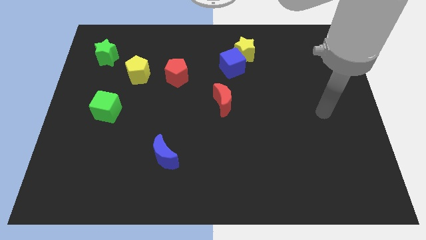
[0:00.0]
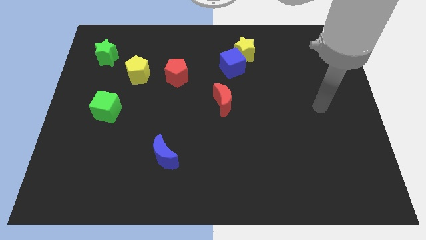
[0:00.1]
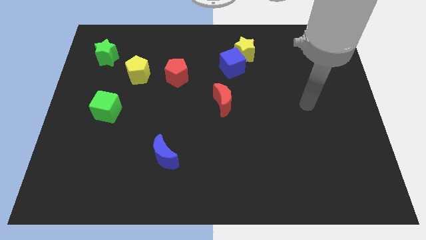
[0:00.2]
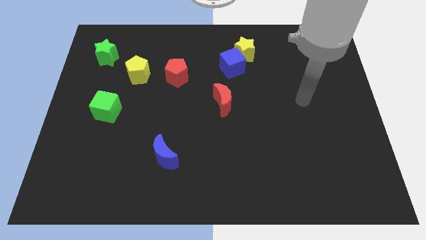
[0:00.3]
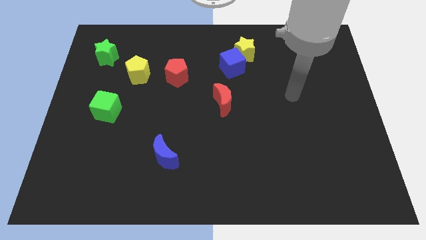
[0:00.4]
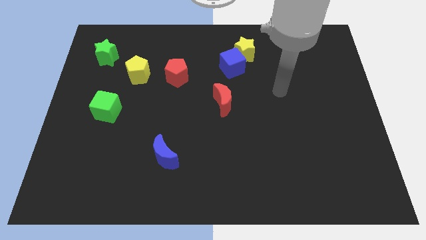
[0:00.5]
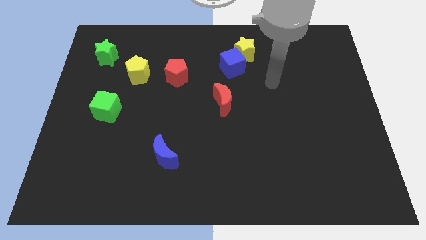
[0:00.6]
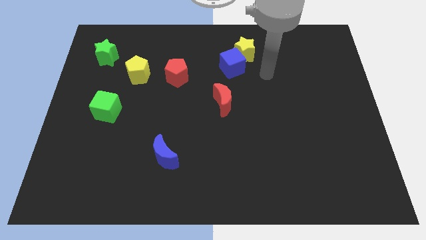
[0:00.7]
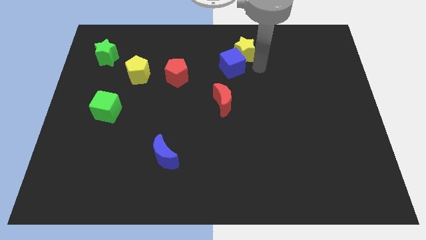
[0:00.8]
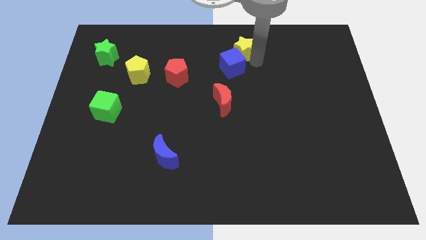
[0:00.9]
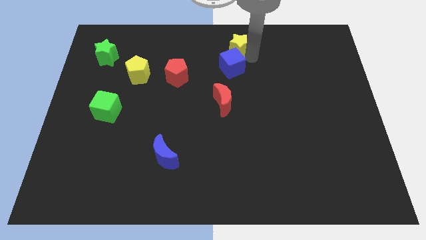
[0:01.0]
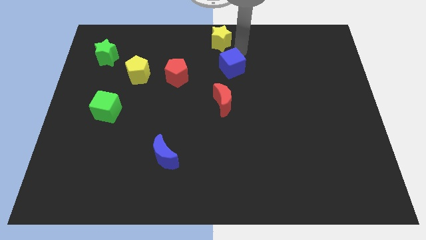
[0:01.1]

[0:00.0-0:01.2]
separate the blue cube from the yellow star

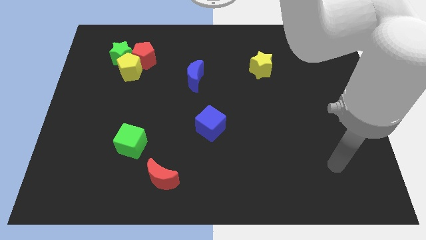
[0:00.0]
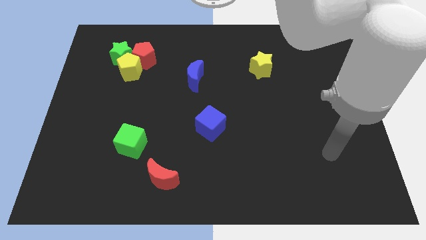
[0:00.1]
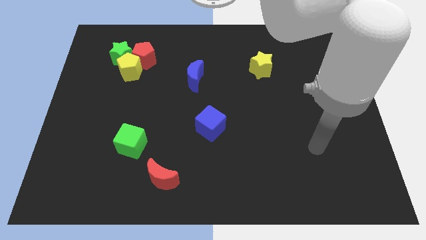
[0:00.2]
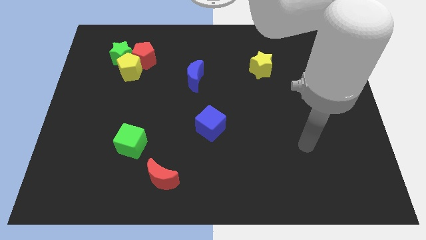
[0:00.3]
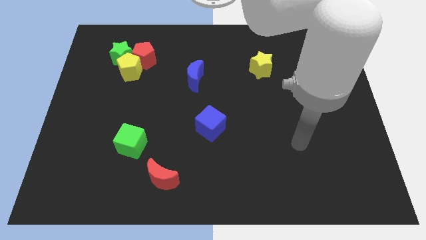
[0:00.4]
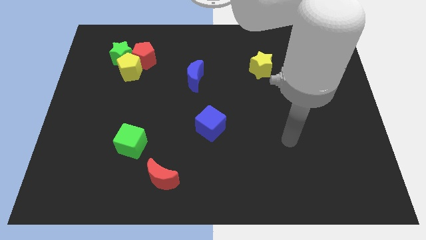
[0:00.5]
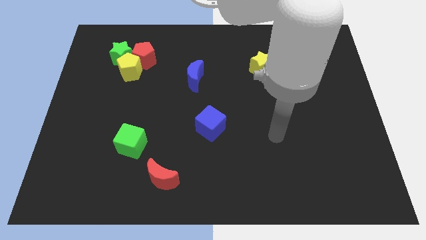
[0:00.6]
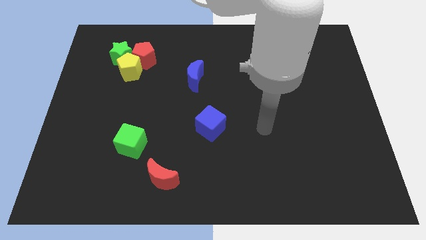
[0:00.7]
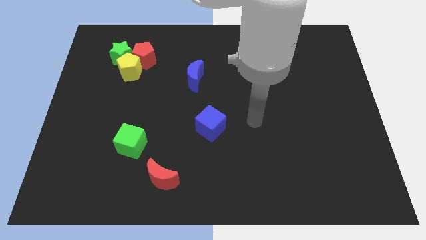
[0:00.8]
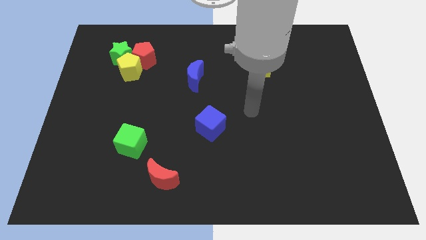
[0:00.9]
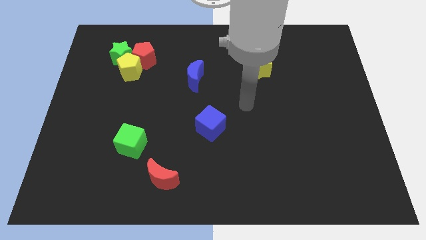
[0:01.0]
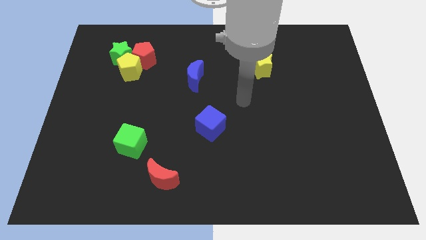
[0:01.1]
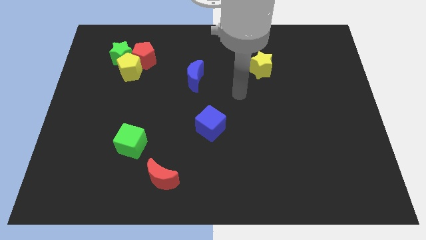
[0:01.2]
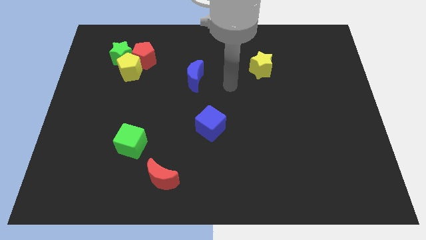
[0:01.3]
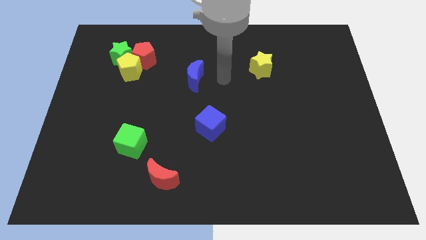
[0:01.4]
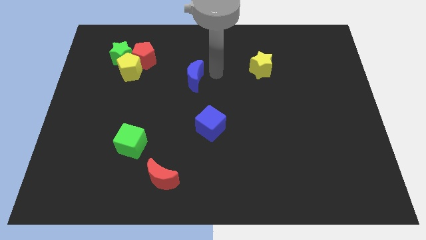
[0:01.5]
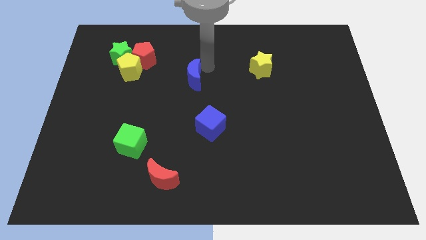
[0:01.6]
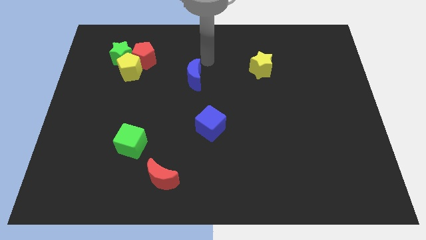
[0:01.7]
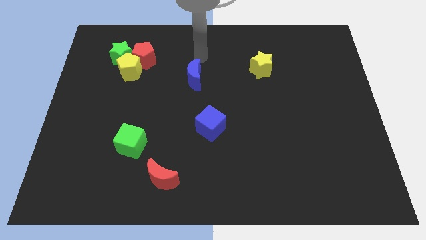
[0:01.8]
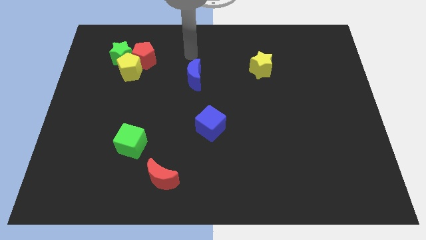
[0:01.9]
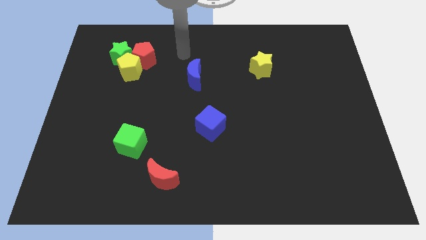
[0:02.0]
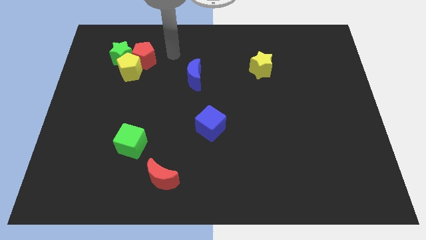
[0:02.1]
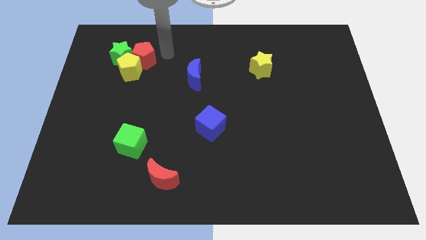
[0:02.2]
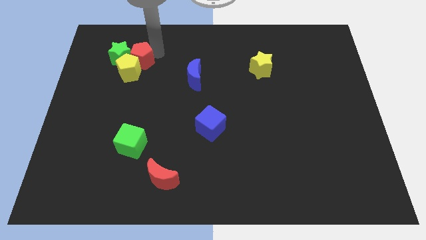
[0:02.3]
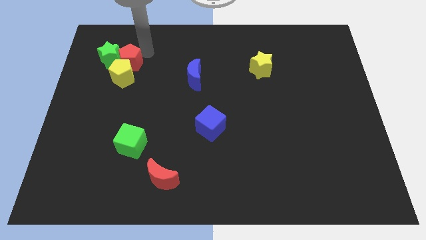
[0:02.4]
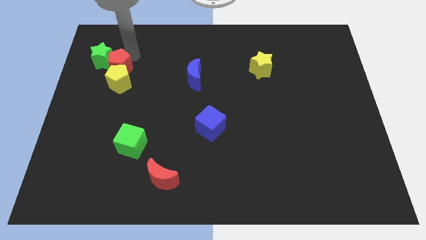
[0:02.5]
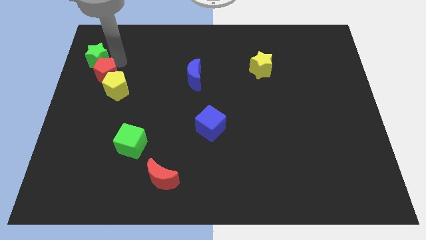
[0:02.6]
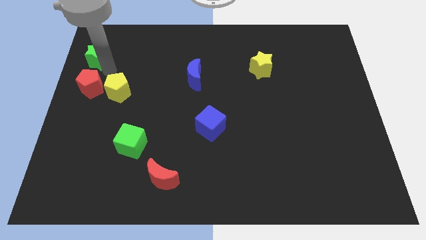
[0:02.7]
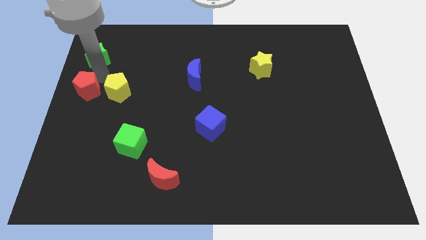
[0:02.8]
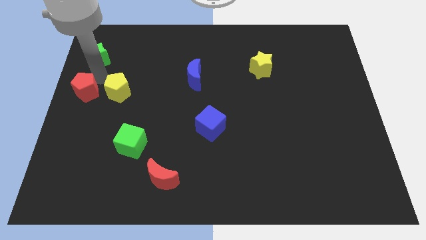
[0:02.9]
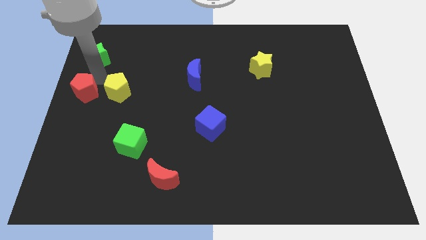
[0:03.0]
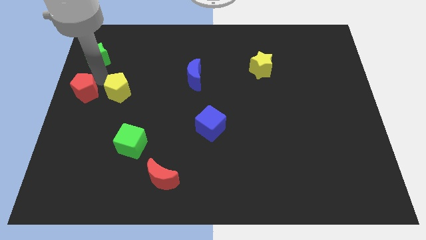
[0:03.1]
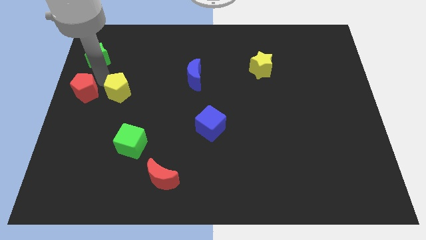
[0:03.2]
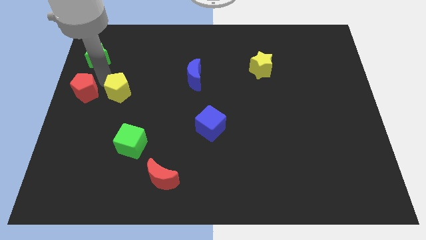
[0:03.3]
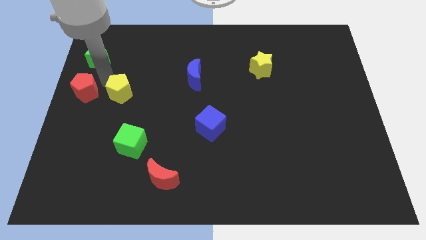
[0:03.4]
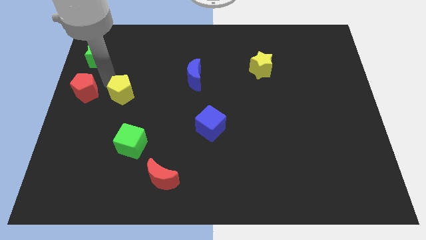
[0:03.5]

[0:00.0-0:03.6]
separate the yellow pentagon from the red pentagon and green star

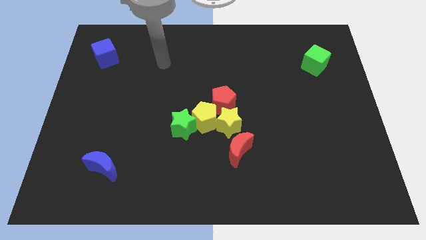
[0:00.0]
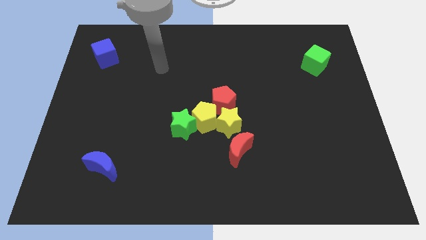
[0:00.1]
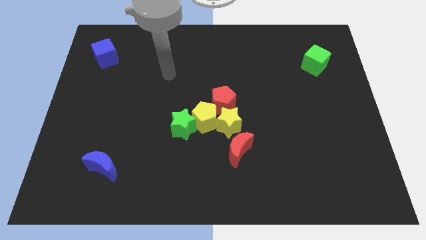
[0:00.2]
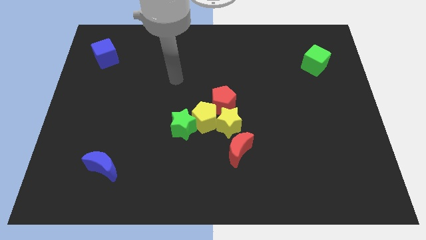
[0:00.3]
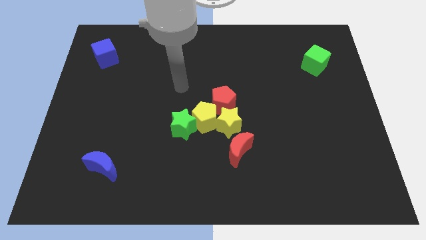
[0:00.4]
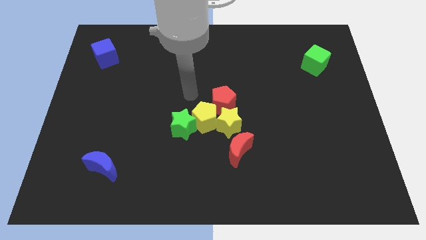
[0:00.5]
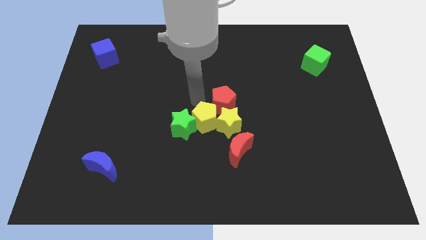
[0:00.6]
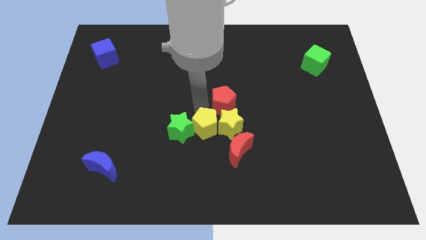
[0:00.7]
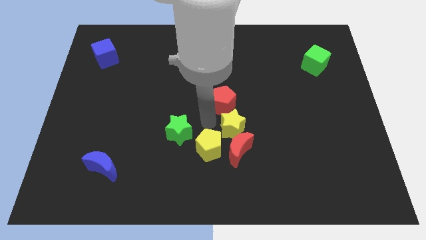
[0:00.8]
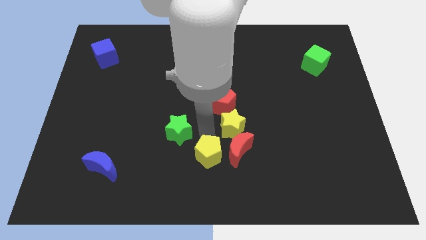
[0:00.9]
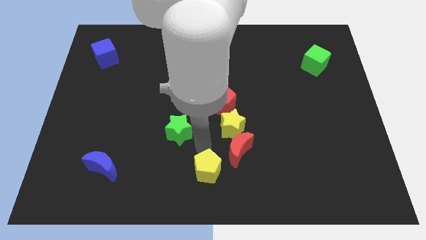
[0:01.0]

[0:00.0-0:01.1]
separate the green star from the yellow pentagon

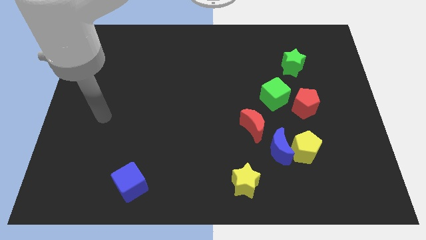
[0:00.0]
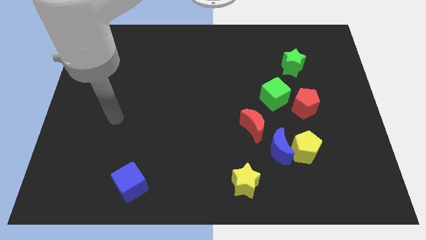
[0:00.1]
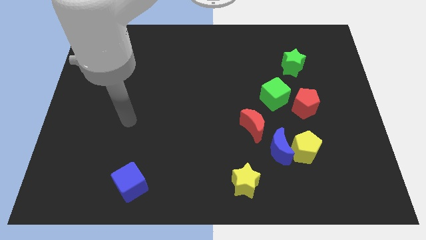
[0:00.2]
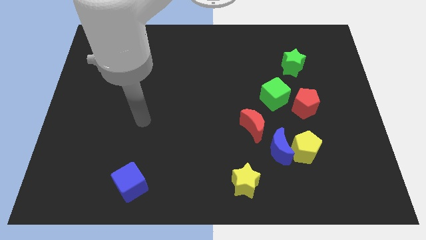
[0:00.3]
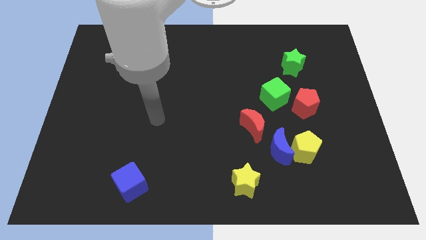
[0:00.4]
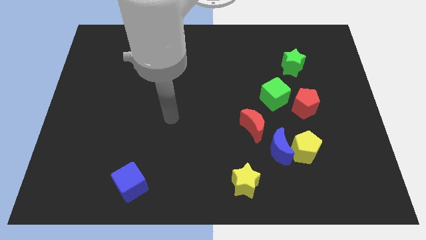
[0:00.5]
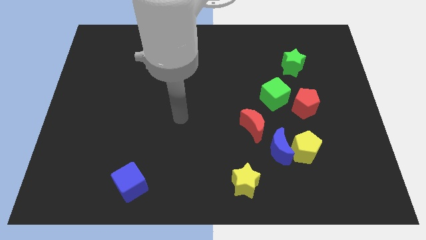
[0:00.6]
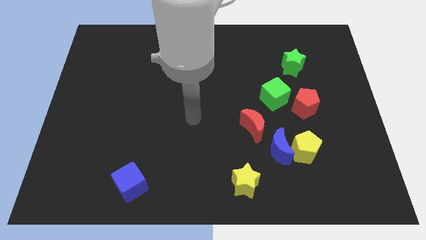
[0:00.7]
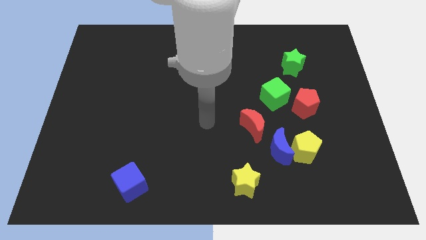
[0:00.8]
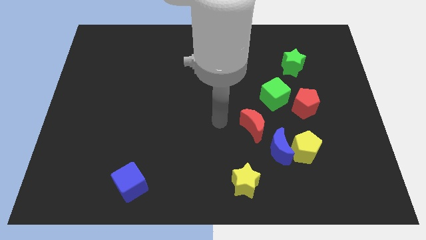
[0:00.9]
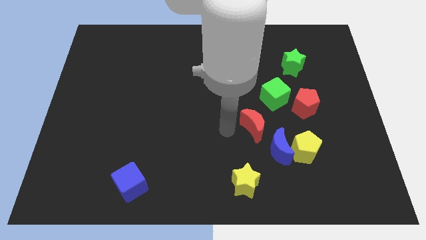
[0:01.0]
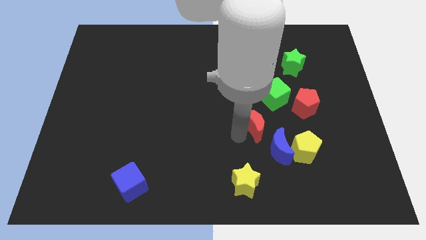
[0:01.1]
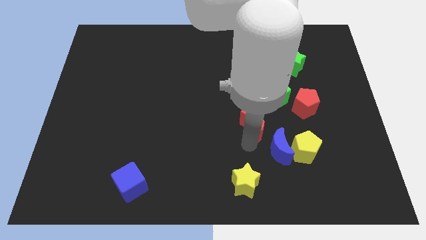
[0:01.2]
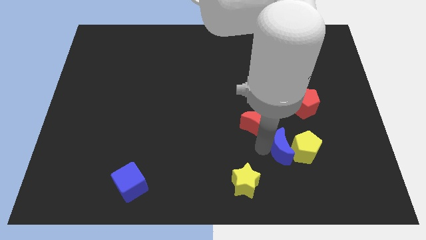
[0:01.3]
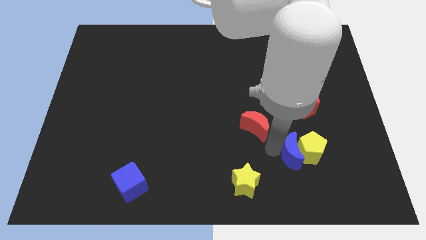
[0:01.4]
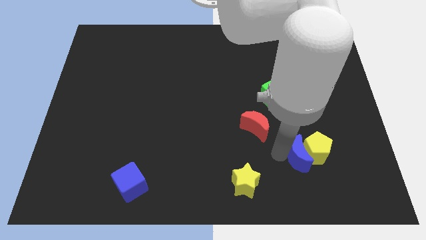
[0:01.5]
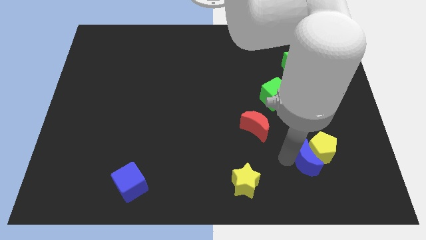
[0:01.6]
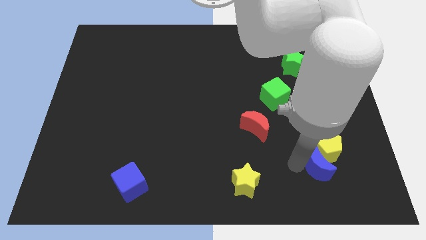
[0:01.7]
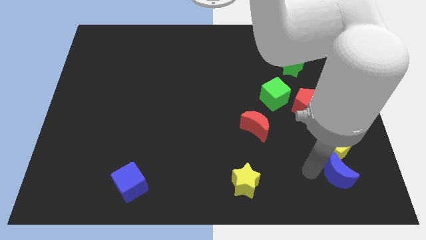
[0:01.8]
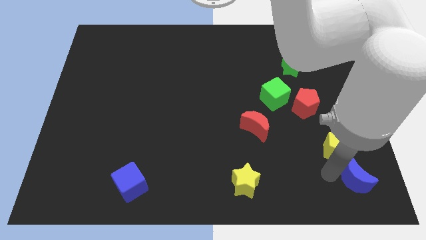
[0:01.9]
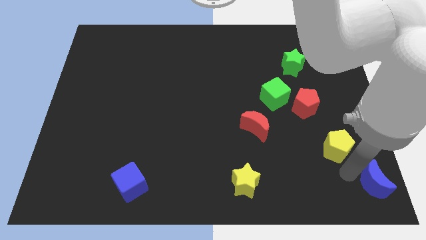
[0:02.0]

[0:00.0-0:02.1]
pull the yellow pentagon apart from the blue moon

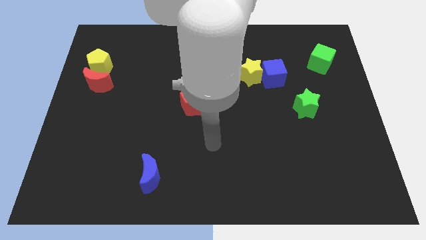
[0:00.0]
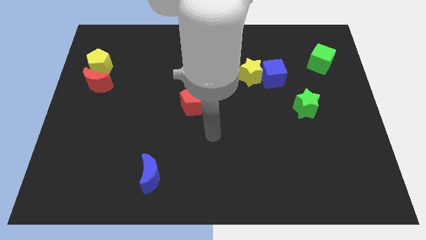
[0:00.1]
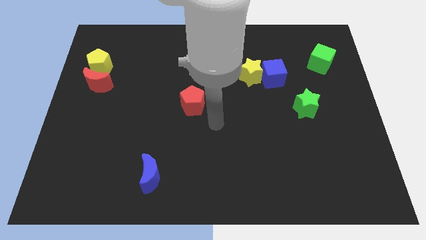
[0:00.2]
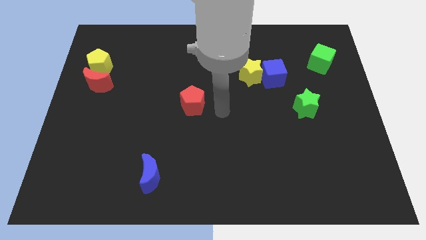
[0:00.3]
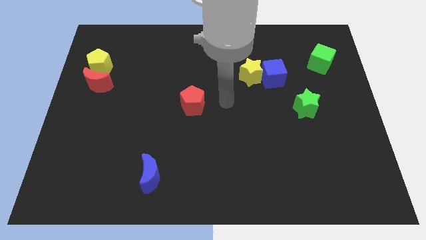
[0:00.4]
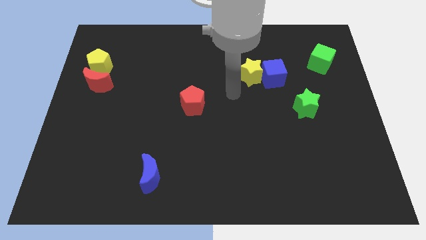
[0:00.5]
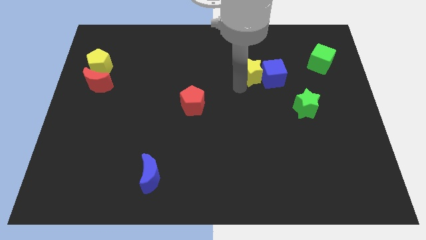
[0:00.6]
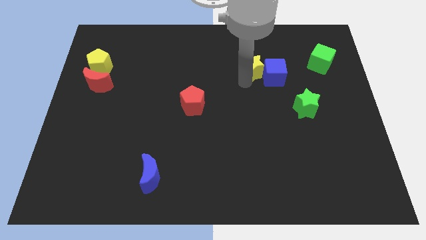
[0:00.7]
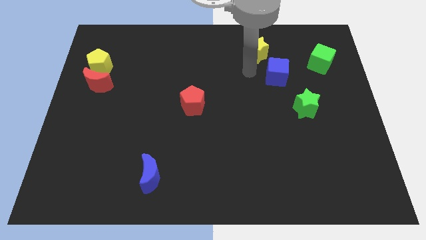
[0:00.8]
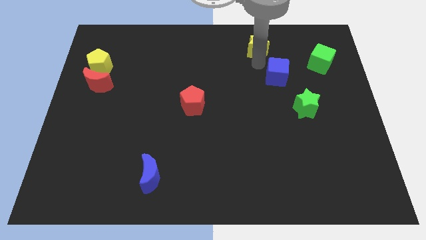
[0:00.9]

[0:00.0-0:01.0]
pull the blue cube apart from the yellow star

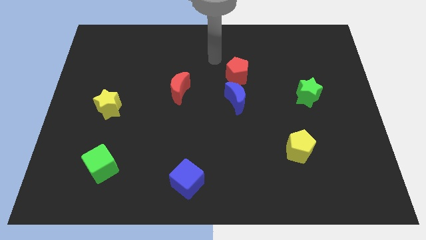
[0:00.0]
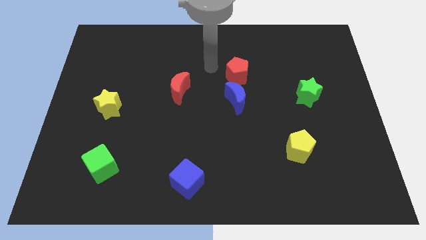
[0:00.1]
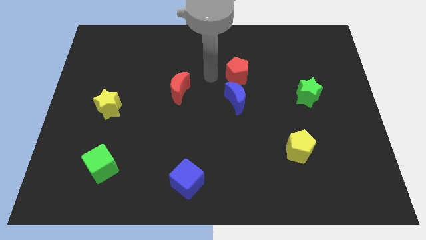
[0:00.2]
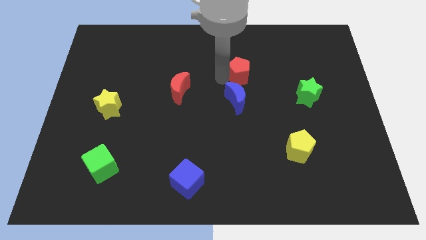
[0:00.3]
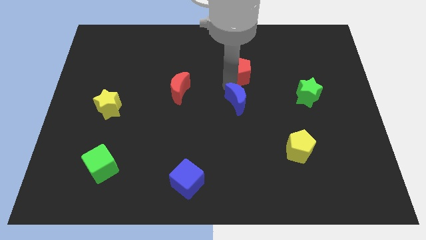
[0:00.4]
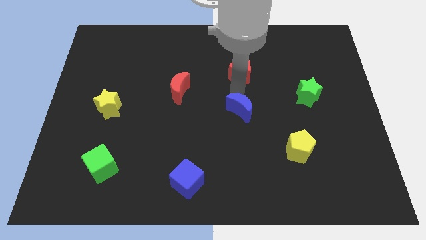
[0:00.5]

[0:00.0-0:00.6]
pull the red pentagon apart from the blue moon
